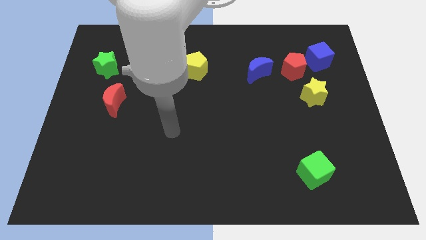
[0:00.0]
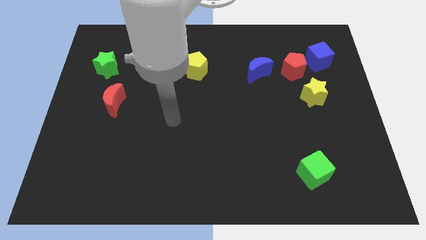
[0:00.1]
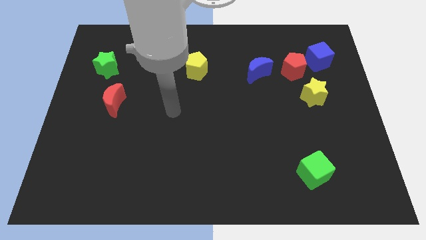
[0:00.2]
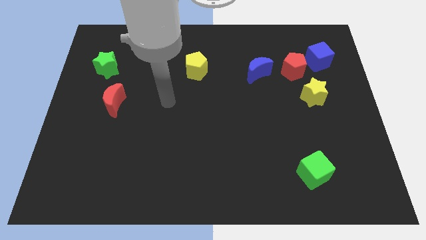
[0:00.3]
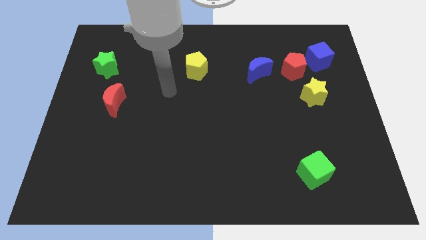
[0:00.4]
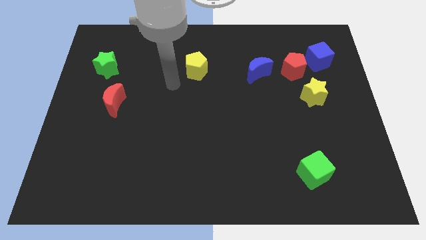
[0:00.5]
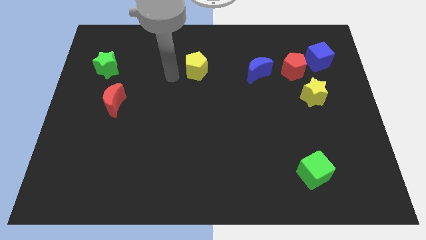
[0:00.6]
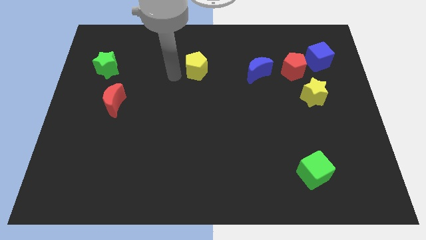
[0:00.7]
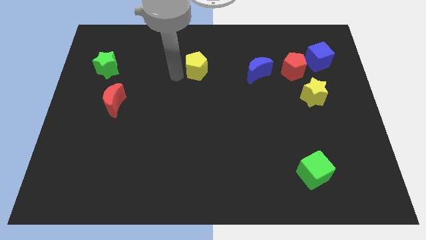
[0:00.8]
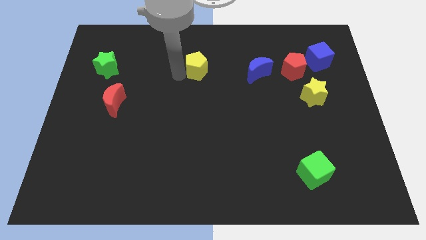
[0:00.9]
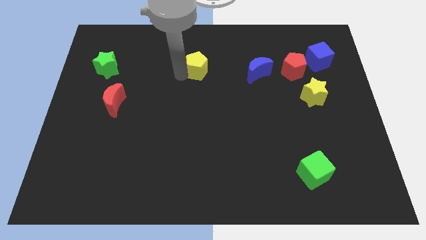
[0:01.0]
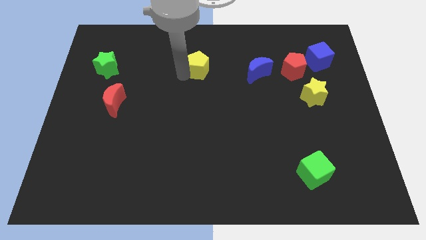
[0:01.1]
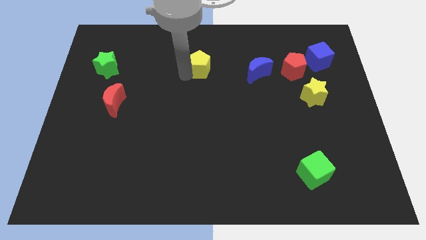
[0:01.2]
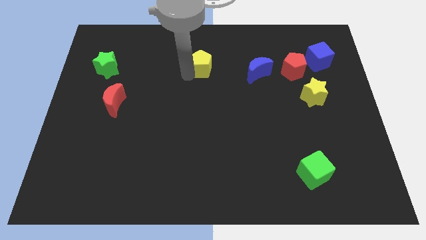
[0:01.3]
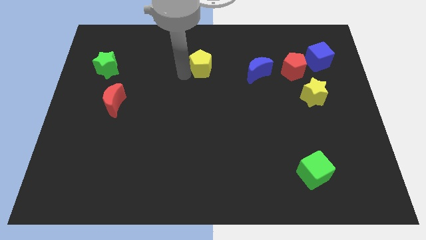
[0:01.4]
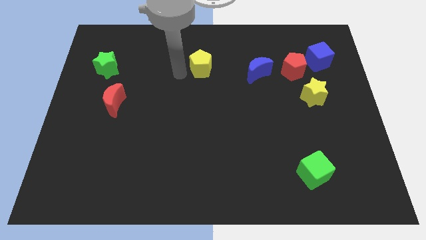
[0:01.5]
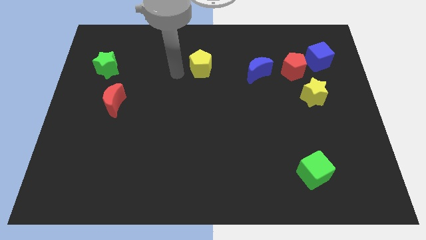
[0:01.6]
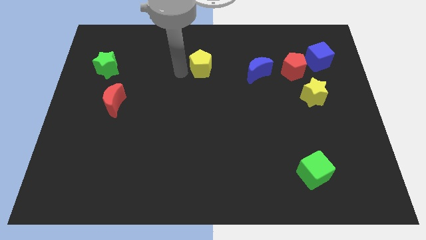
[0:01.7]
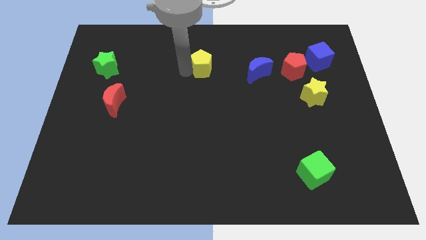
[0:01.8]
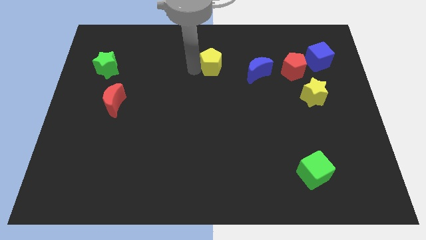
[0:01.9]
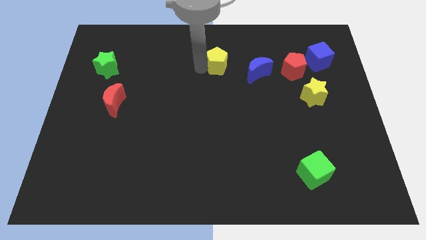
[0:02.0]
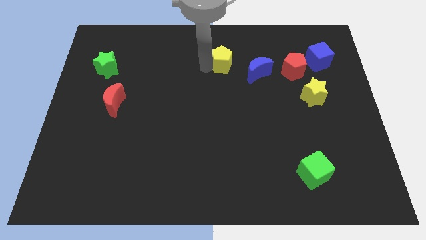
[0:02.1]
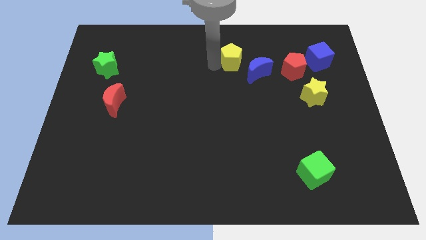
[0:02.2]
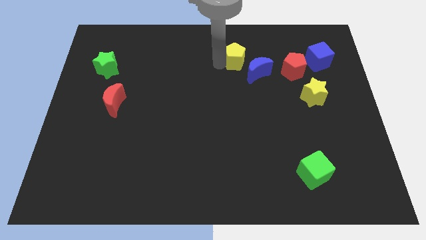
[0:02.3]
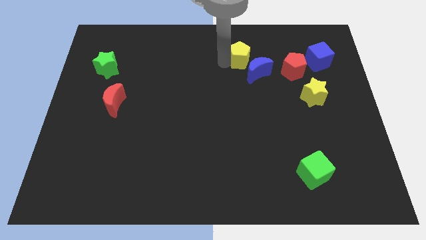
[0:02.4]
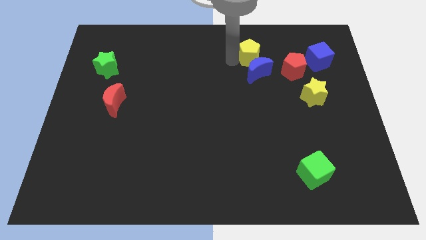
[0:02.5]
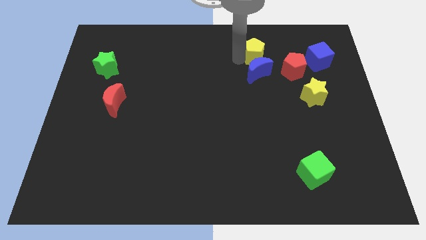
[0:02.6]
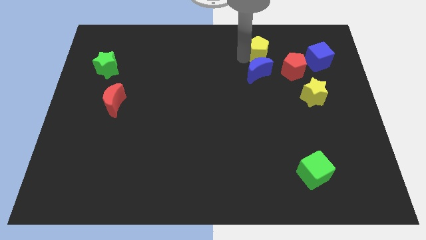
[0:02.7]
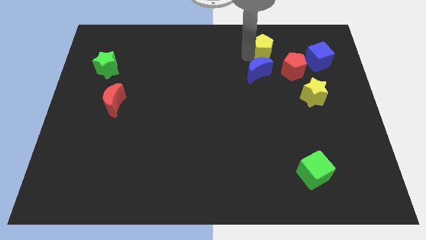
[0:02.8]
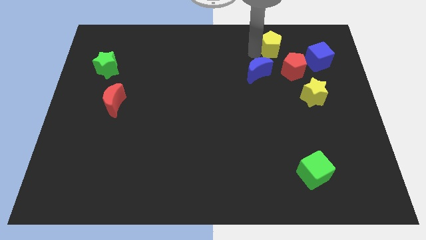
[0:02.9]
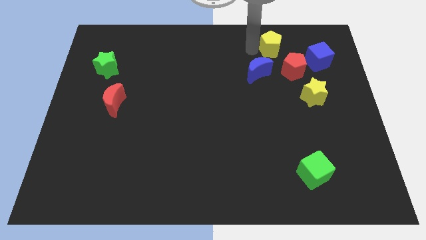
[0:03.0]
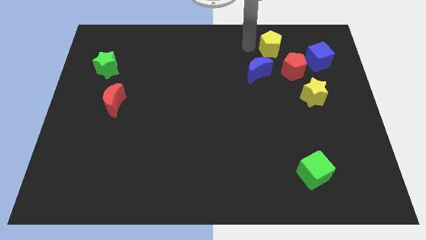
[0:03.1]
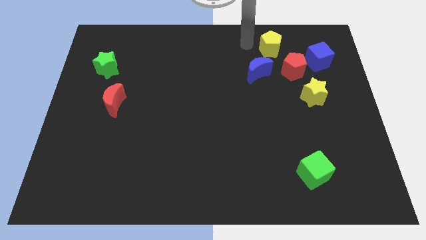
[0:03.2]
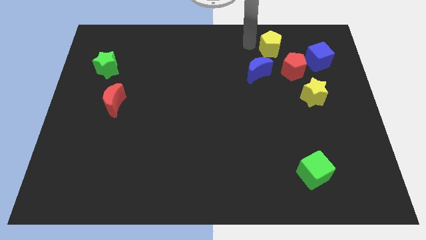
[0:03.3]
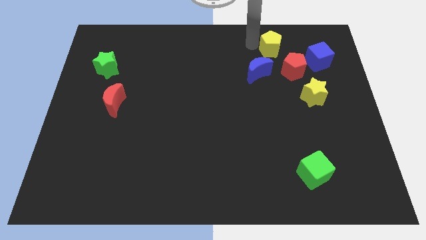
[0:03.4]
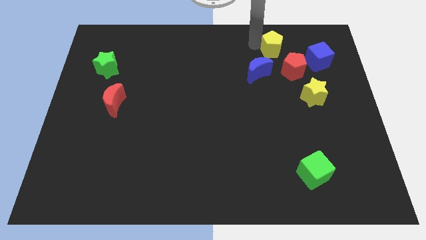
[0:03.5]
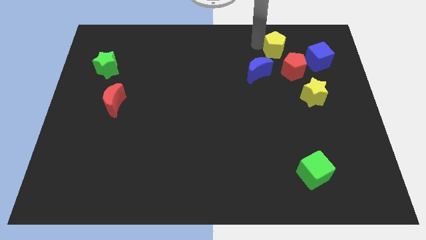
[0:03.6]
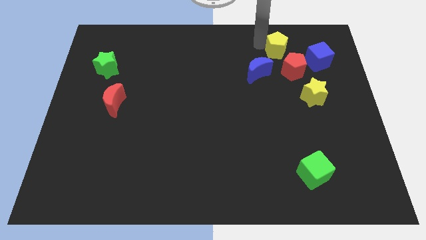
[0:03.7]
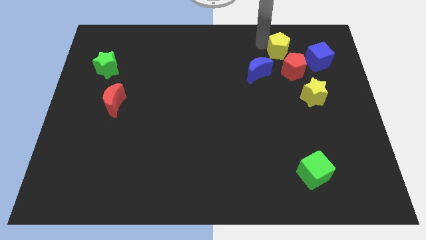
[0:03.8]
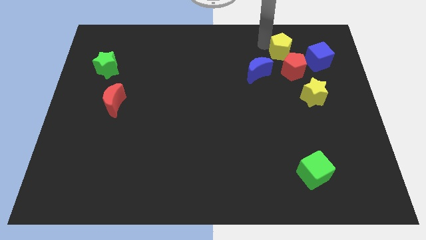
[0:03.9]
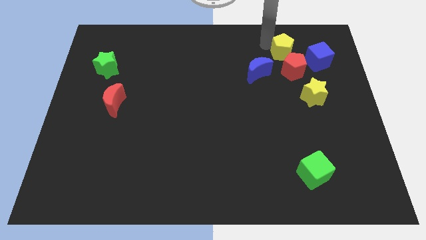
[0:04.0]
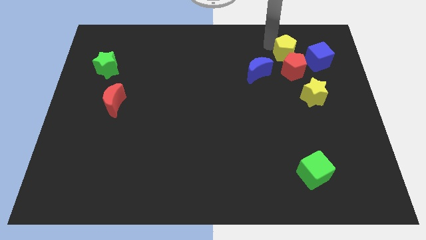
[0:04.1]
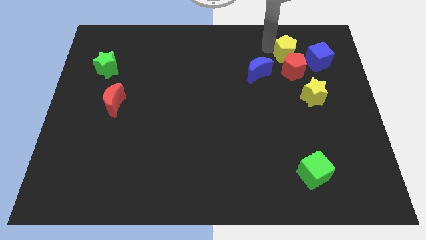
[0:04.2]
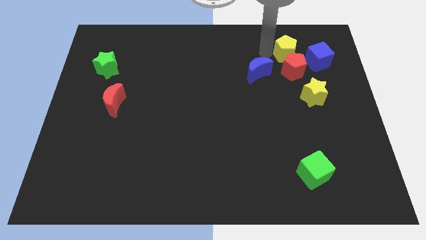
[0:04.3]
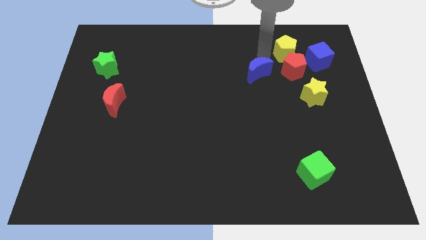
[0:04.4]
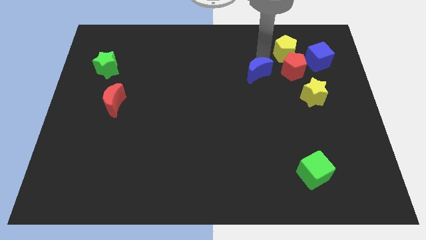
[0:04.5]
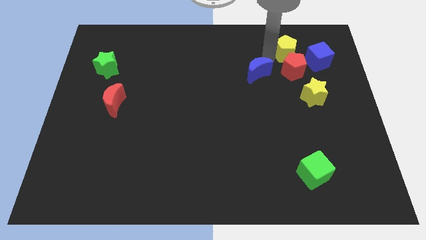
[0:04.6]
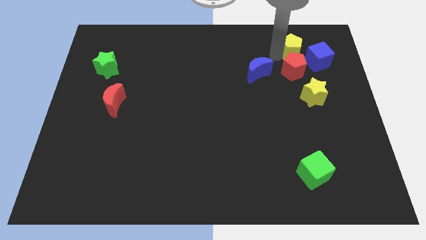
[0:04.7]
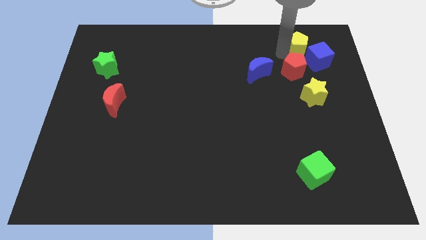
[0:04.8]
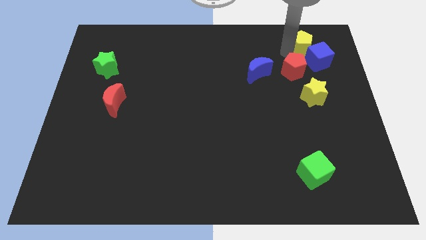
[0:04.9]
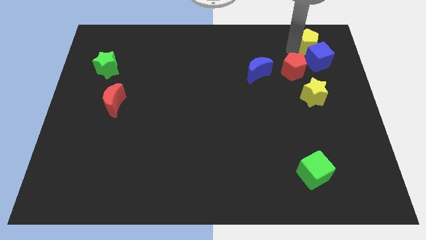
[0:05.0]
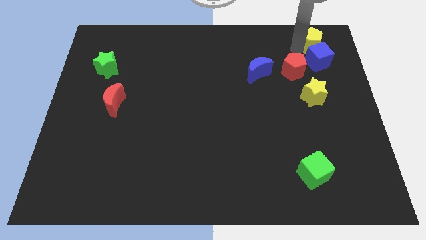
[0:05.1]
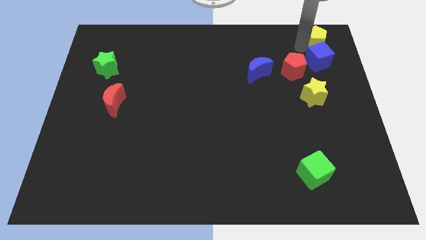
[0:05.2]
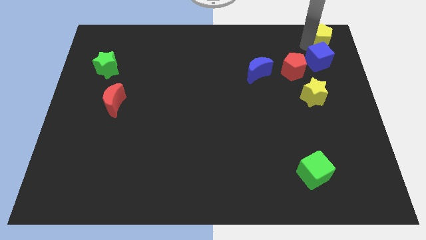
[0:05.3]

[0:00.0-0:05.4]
slide the yellow pentagon to the top right of the board
